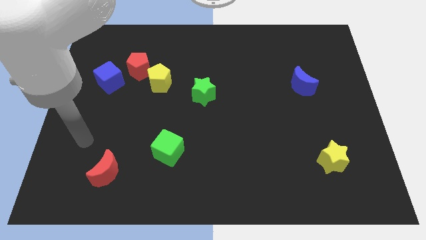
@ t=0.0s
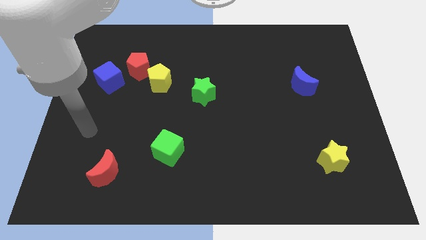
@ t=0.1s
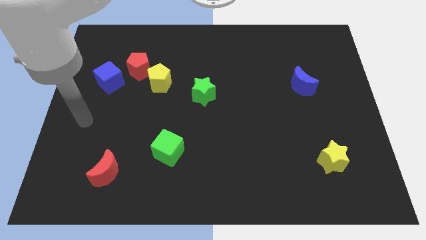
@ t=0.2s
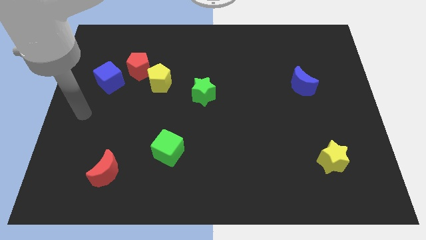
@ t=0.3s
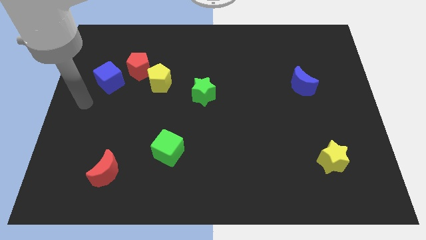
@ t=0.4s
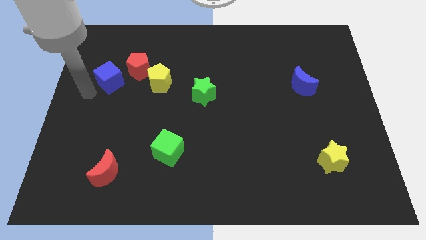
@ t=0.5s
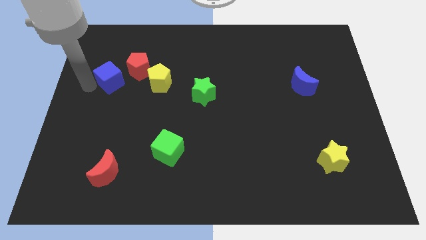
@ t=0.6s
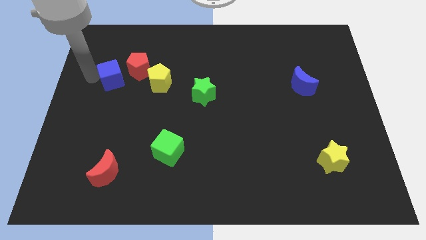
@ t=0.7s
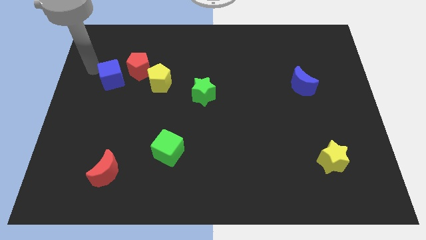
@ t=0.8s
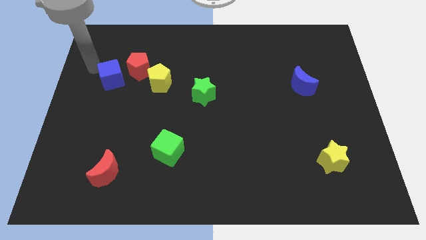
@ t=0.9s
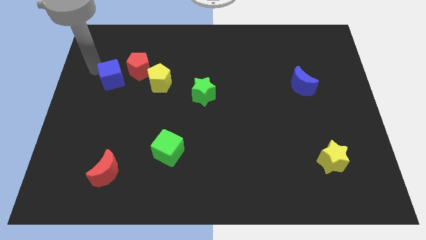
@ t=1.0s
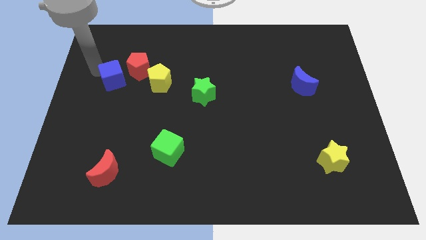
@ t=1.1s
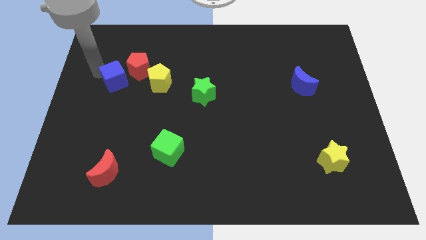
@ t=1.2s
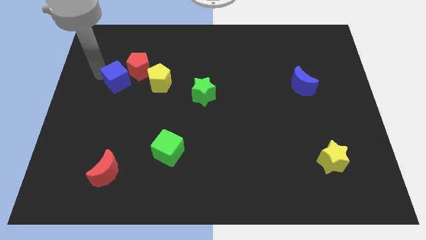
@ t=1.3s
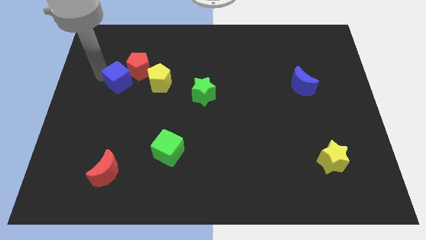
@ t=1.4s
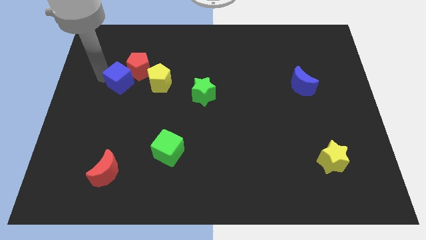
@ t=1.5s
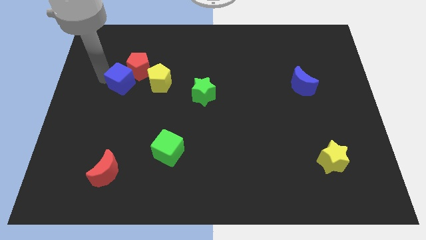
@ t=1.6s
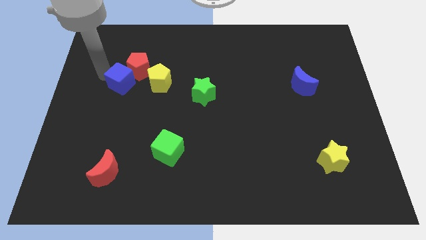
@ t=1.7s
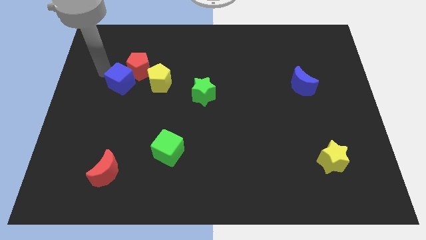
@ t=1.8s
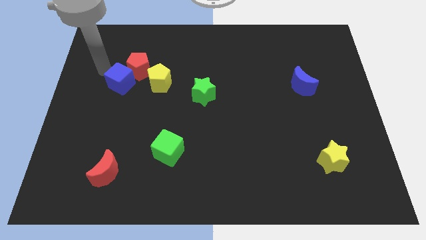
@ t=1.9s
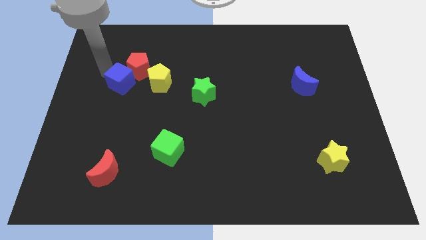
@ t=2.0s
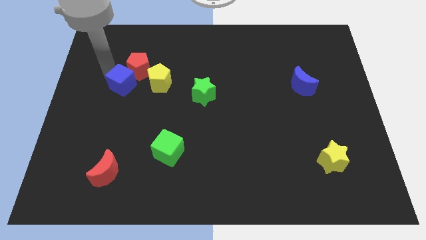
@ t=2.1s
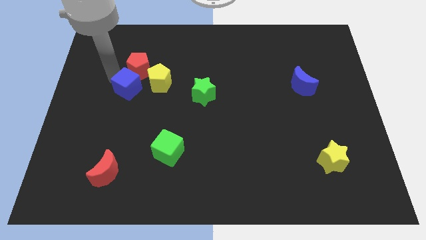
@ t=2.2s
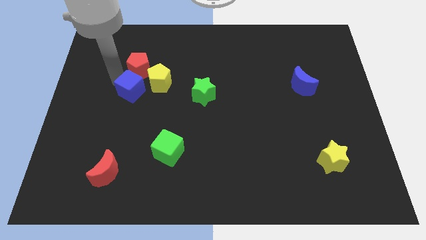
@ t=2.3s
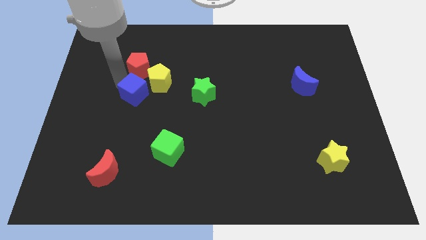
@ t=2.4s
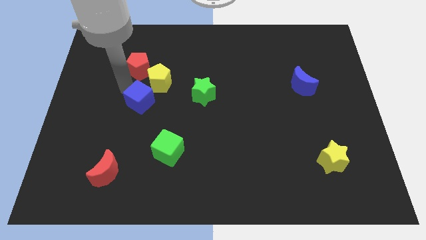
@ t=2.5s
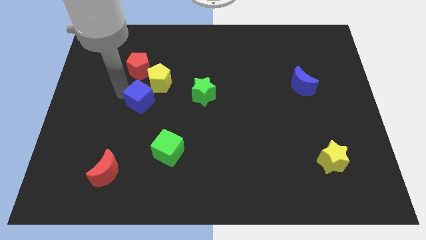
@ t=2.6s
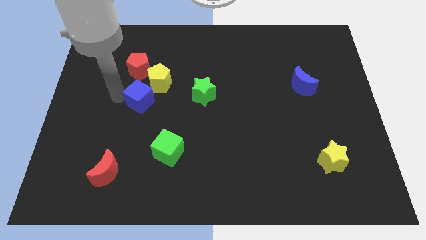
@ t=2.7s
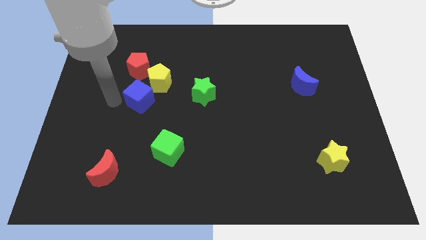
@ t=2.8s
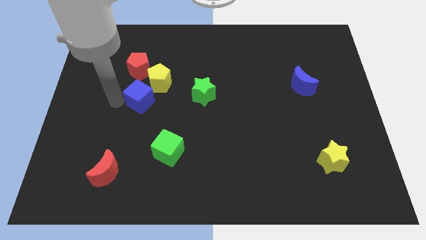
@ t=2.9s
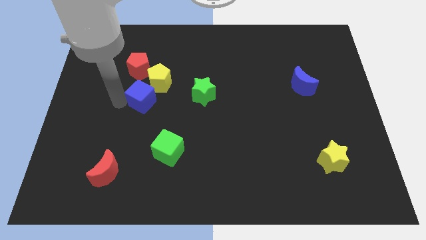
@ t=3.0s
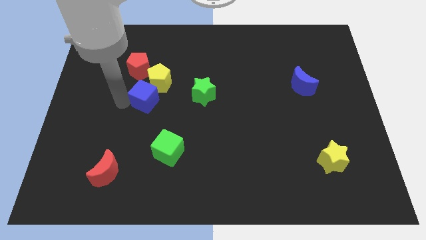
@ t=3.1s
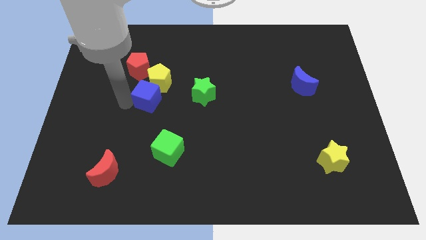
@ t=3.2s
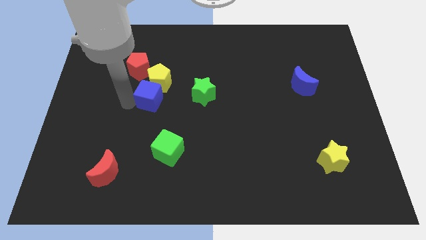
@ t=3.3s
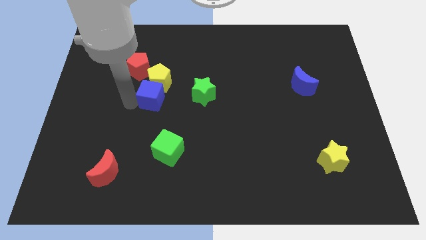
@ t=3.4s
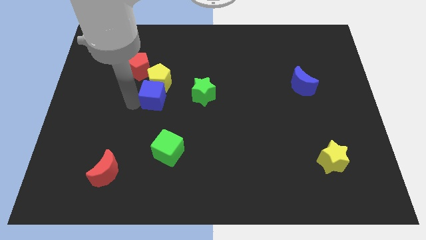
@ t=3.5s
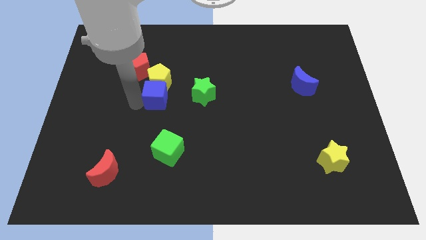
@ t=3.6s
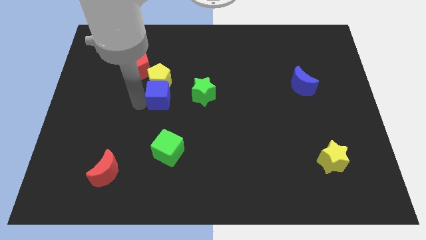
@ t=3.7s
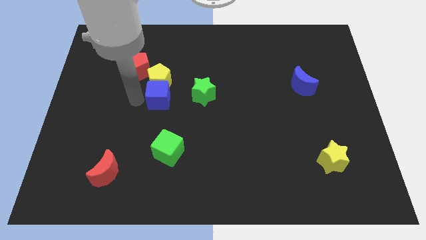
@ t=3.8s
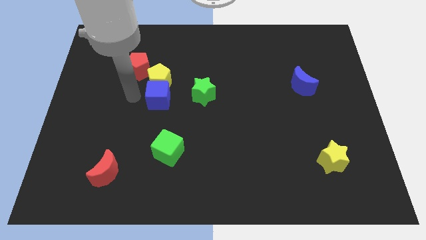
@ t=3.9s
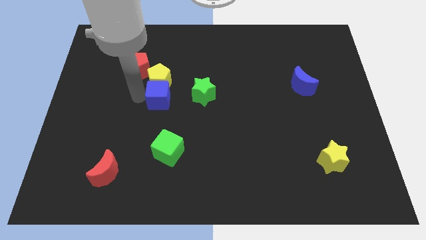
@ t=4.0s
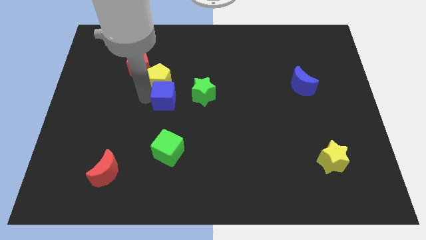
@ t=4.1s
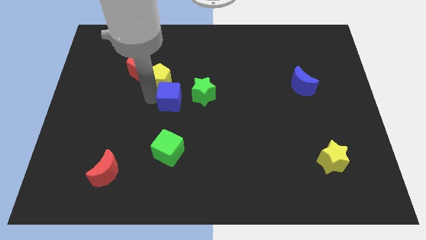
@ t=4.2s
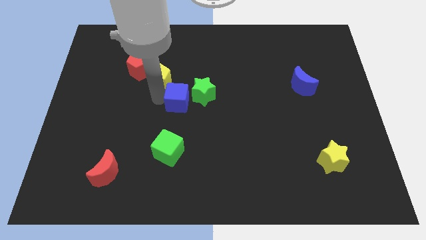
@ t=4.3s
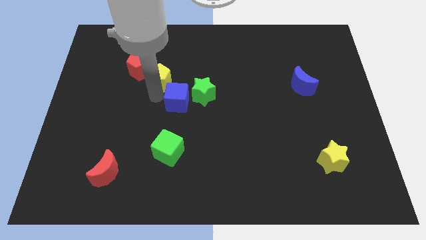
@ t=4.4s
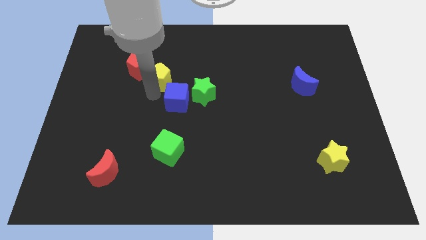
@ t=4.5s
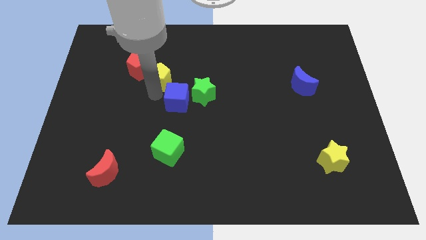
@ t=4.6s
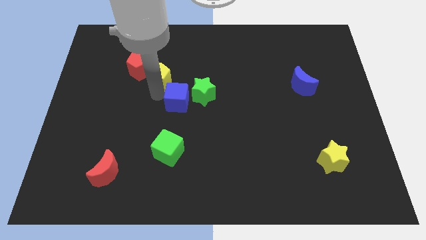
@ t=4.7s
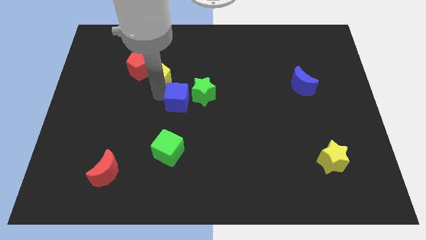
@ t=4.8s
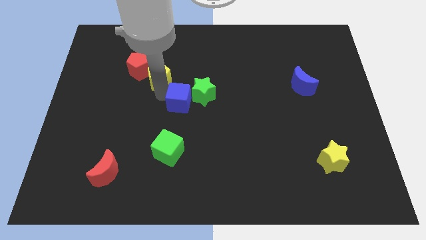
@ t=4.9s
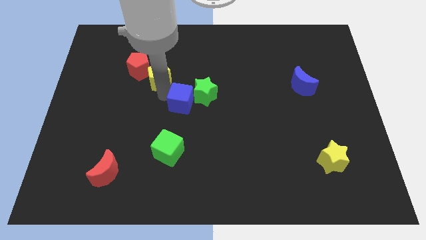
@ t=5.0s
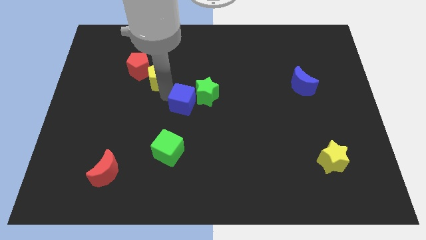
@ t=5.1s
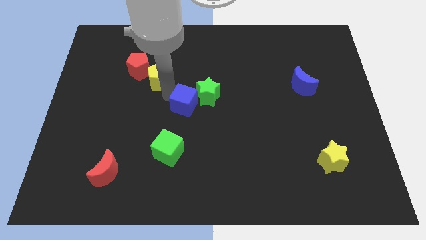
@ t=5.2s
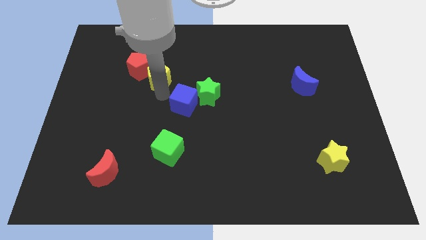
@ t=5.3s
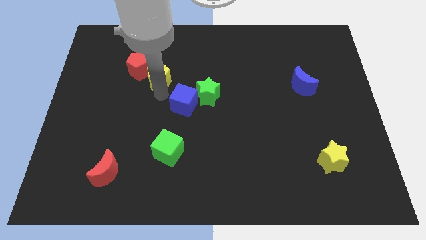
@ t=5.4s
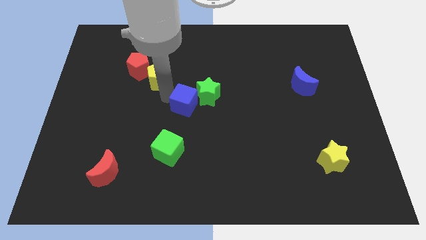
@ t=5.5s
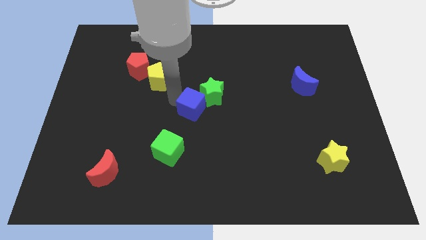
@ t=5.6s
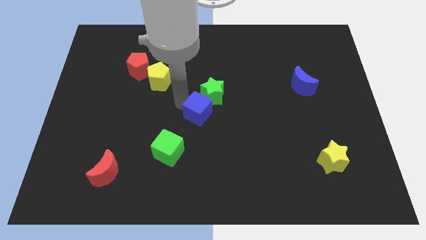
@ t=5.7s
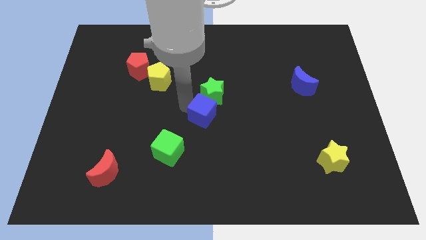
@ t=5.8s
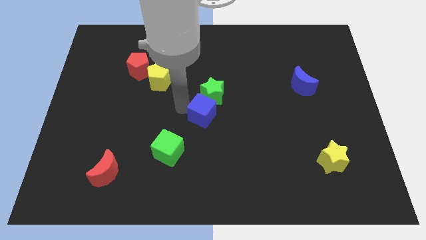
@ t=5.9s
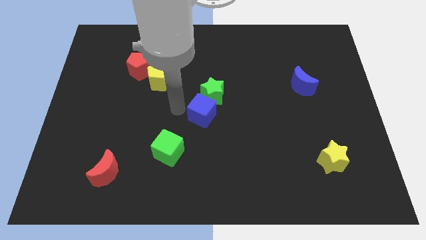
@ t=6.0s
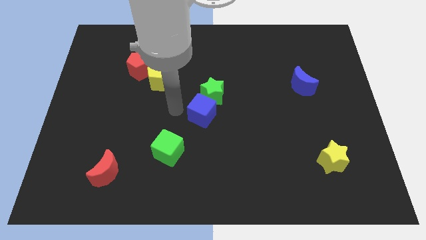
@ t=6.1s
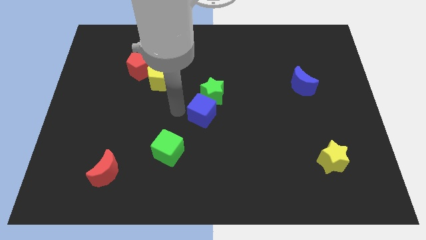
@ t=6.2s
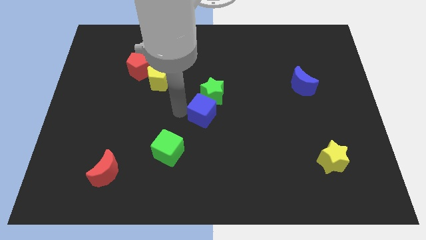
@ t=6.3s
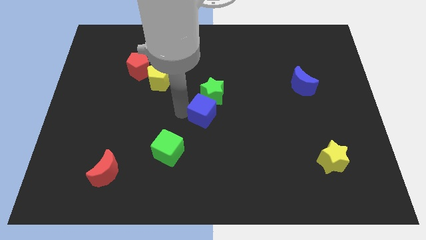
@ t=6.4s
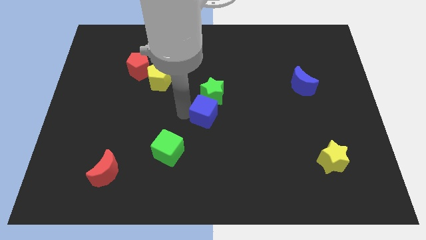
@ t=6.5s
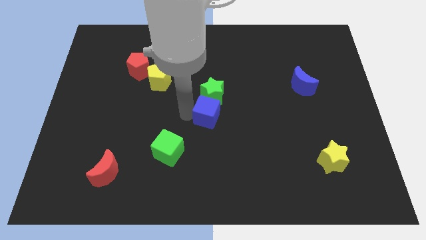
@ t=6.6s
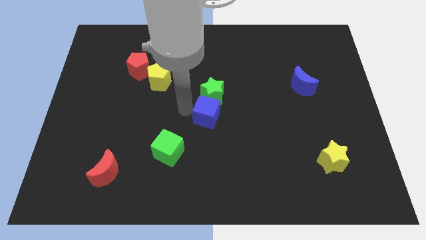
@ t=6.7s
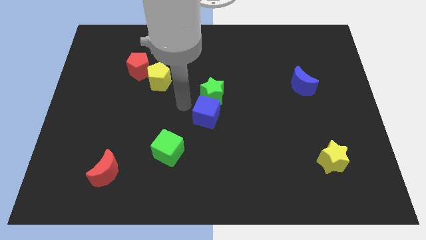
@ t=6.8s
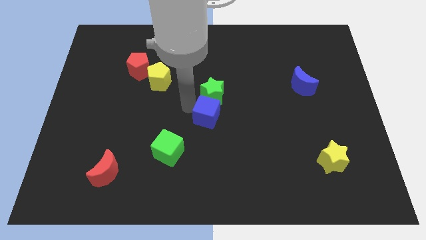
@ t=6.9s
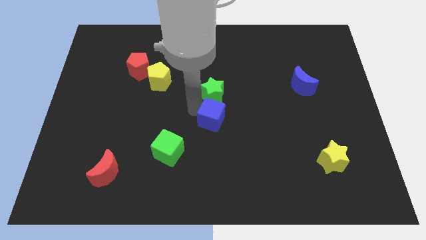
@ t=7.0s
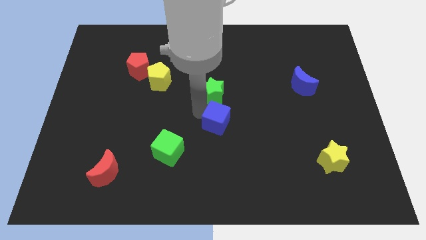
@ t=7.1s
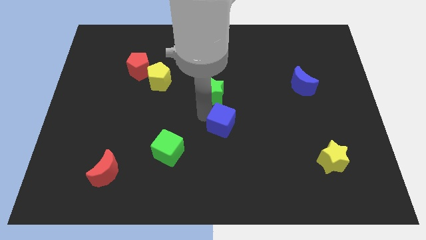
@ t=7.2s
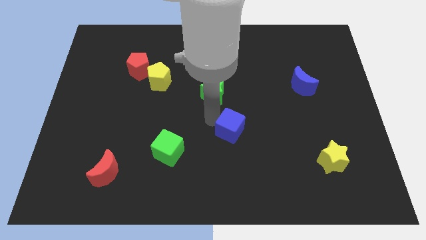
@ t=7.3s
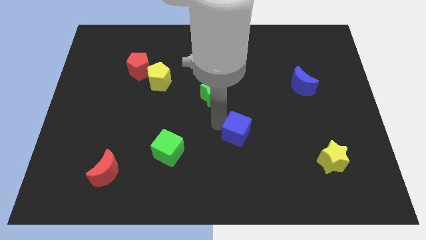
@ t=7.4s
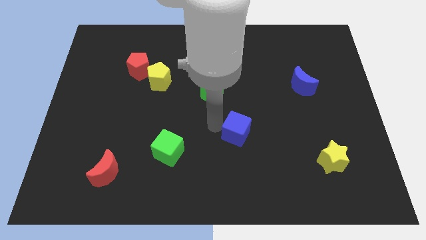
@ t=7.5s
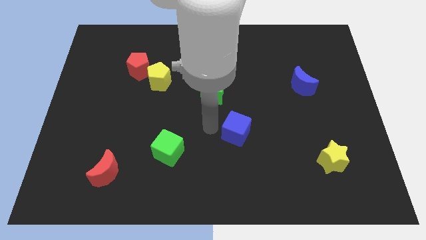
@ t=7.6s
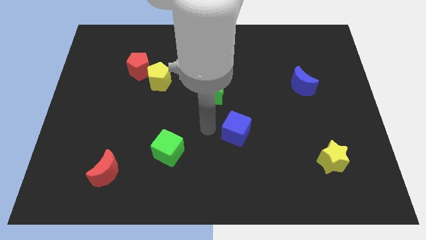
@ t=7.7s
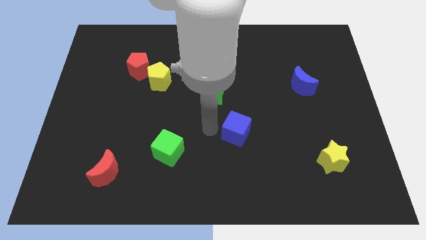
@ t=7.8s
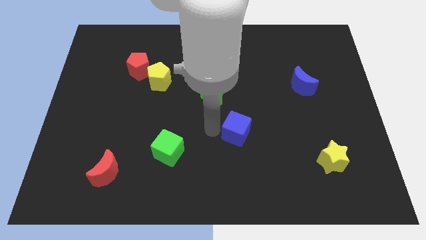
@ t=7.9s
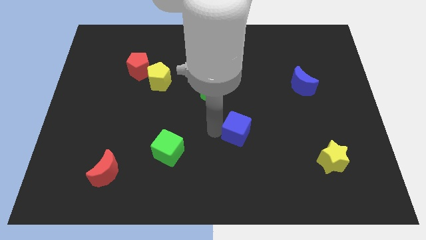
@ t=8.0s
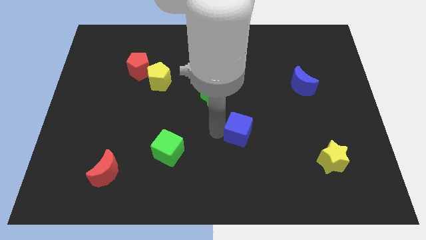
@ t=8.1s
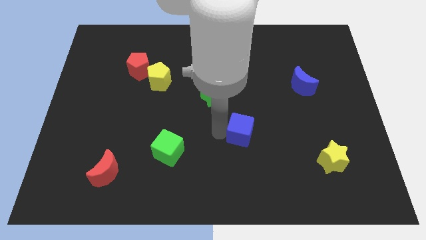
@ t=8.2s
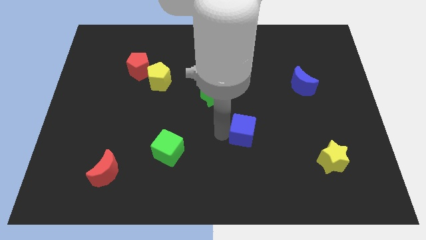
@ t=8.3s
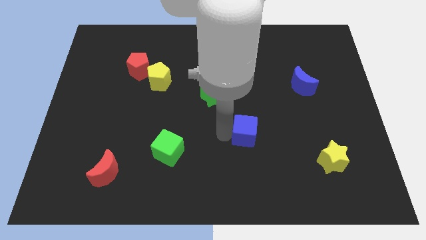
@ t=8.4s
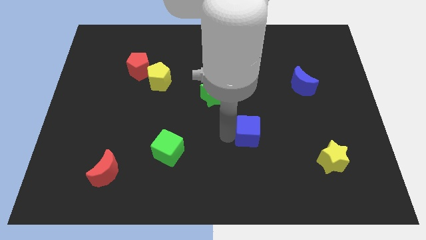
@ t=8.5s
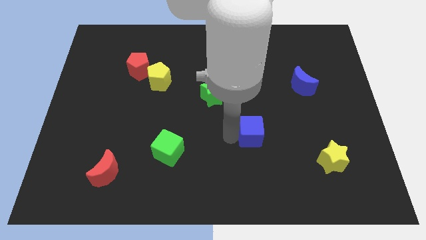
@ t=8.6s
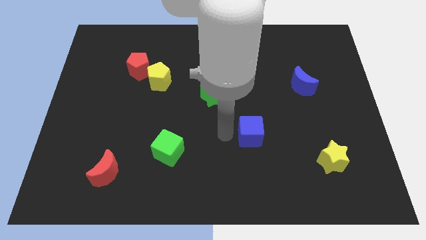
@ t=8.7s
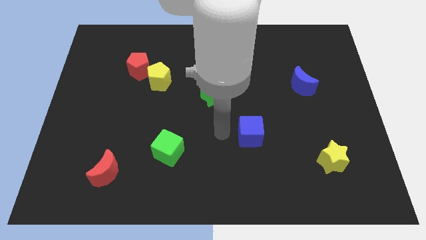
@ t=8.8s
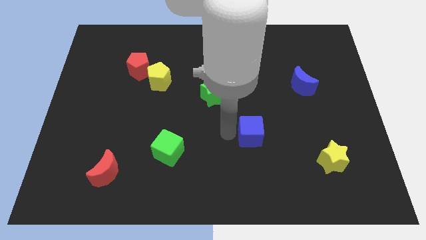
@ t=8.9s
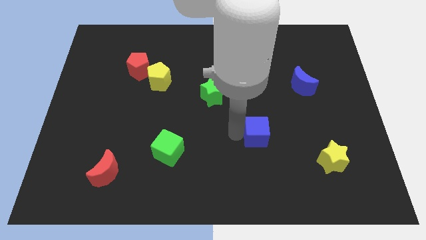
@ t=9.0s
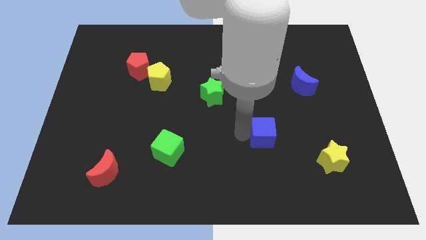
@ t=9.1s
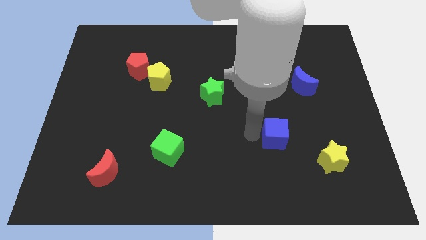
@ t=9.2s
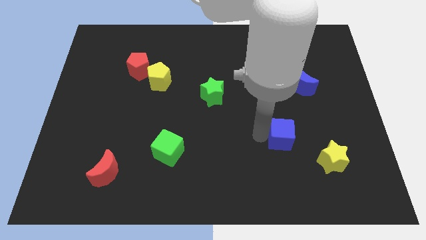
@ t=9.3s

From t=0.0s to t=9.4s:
put the blue cube diagonally up and to the left of the yellow star
